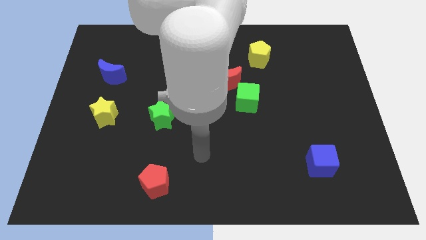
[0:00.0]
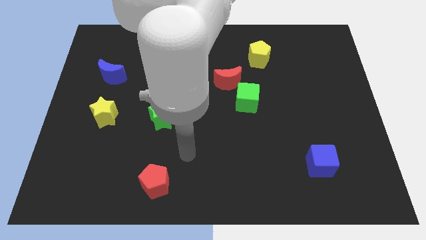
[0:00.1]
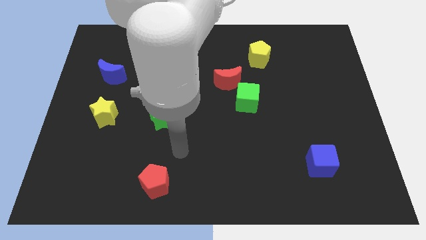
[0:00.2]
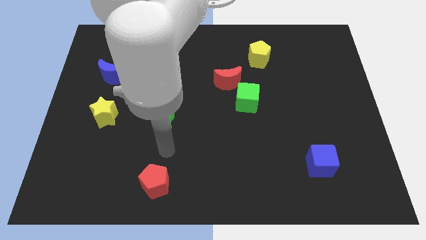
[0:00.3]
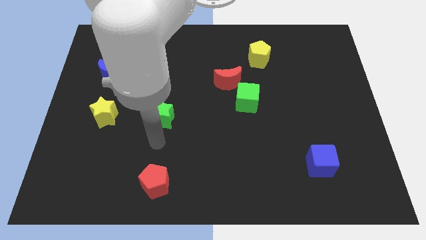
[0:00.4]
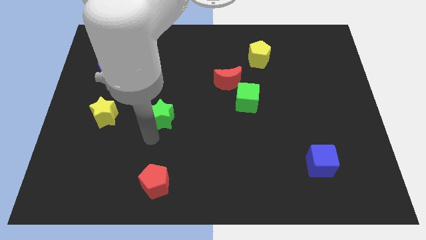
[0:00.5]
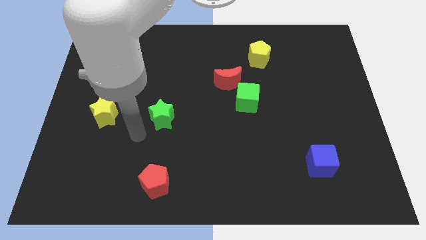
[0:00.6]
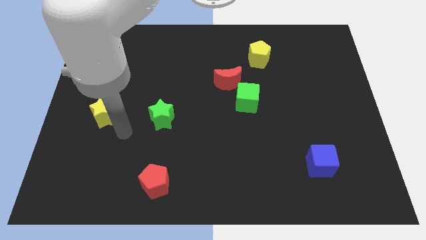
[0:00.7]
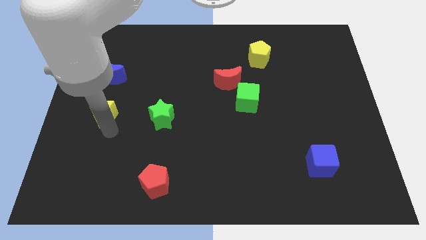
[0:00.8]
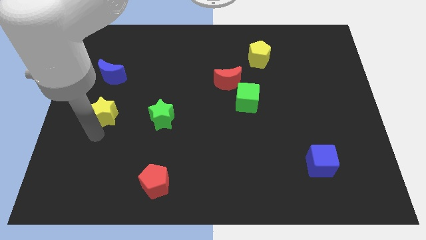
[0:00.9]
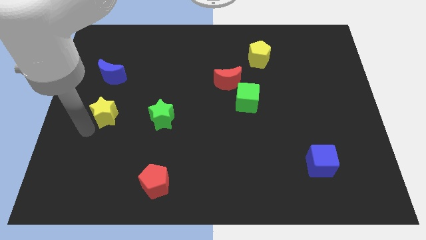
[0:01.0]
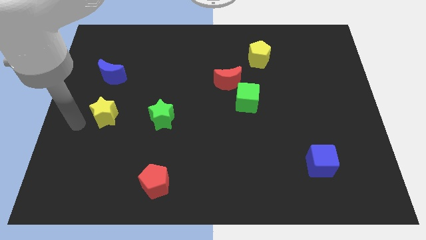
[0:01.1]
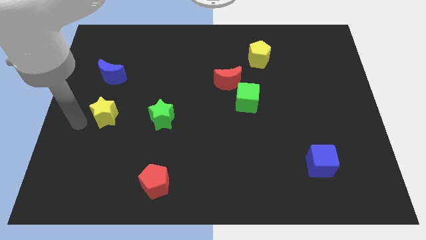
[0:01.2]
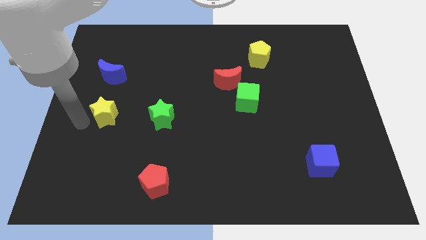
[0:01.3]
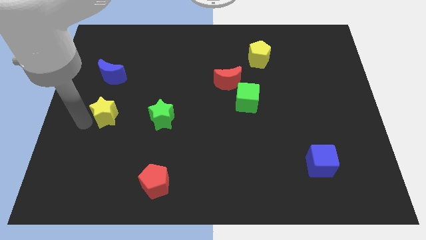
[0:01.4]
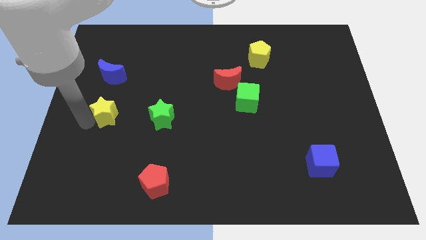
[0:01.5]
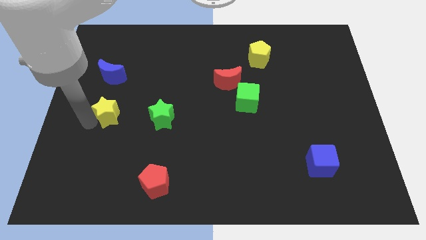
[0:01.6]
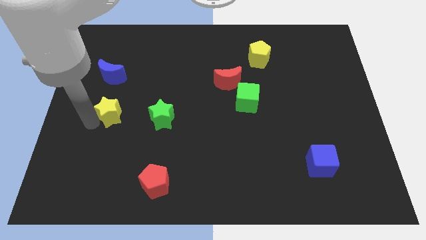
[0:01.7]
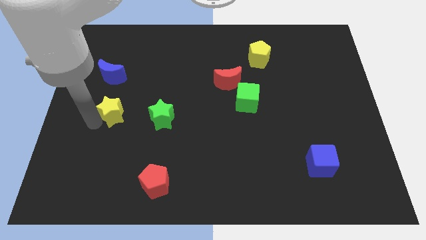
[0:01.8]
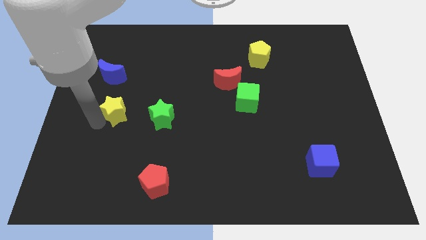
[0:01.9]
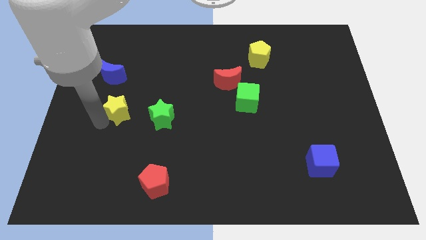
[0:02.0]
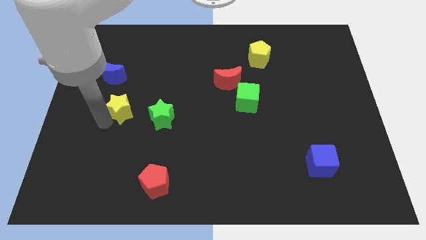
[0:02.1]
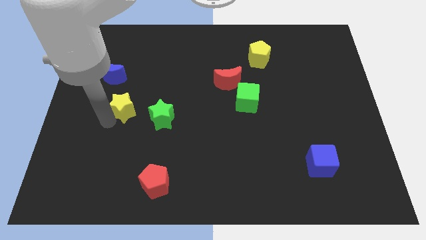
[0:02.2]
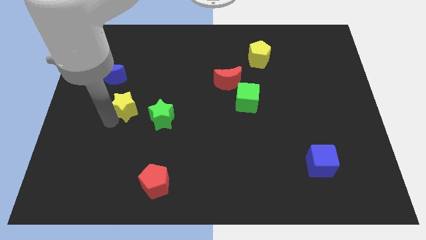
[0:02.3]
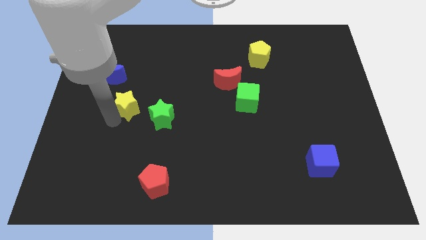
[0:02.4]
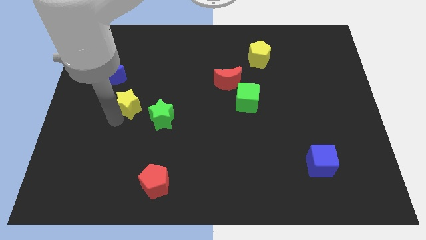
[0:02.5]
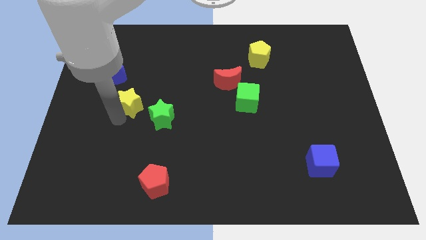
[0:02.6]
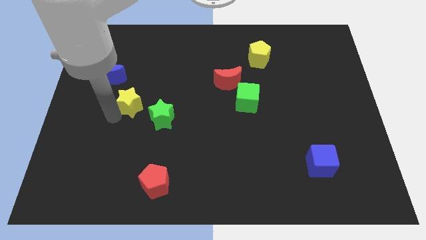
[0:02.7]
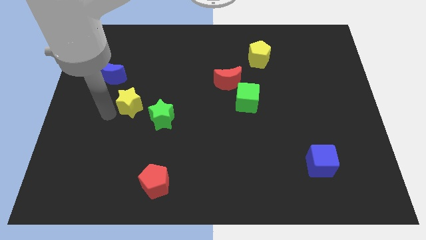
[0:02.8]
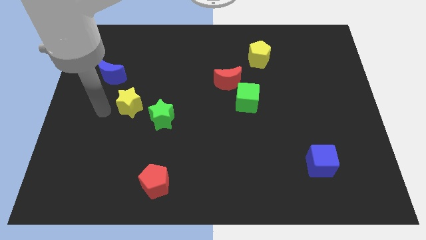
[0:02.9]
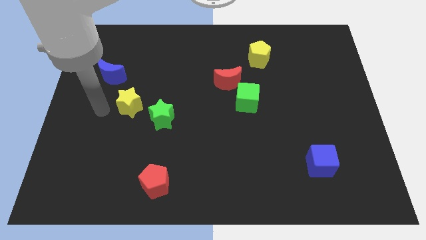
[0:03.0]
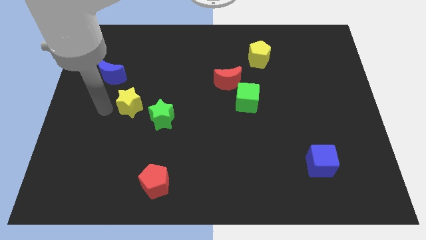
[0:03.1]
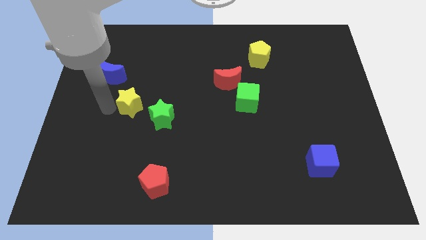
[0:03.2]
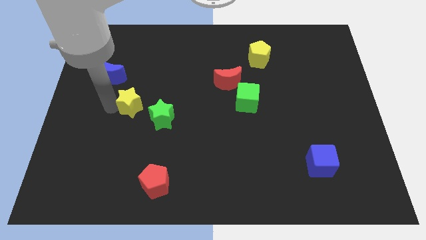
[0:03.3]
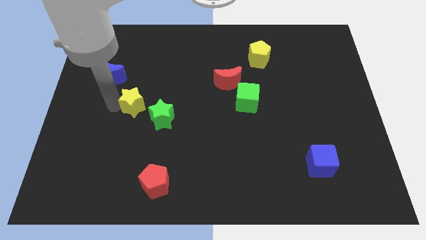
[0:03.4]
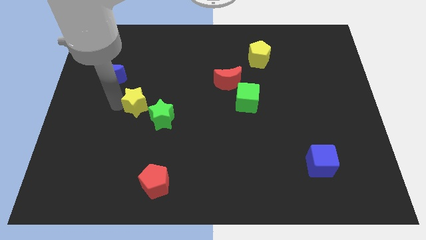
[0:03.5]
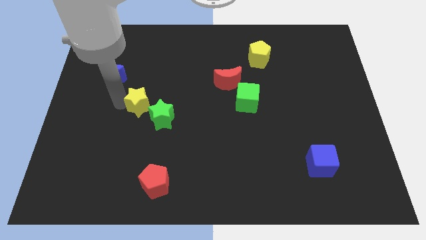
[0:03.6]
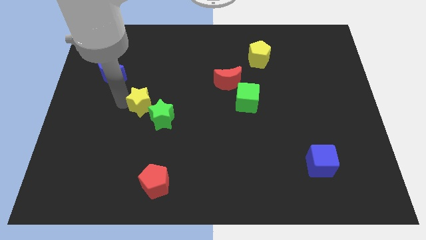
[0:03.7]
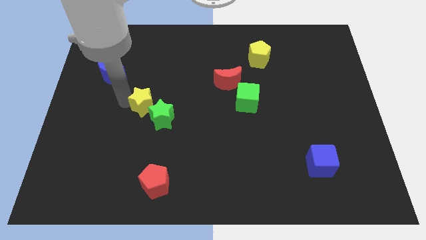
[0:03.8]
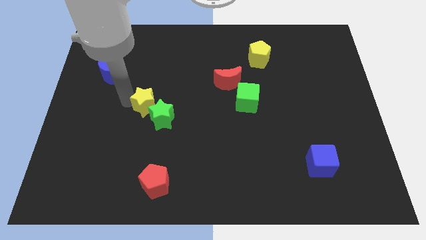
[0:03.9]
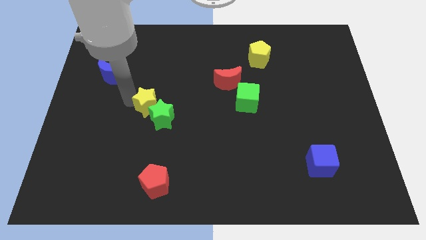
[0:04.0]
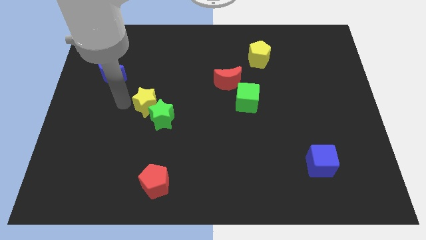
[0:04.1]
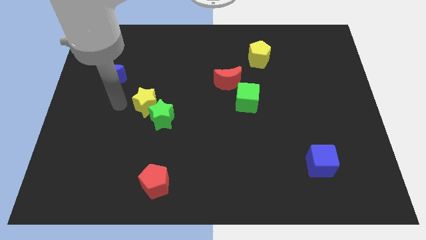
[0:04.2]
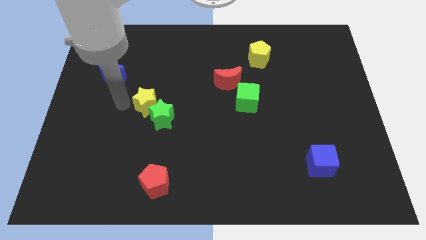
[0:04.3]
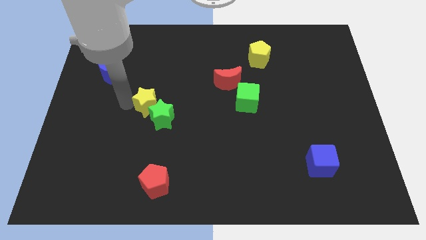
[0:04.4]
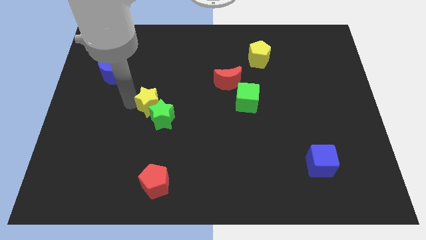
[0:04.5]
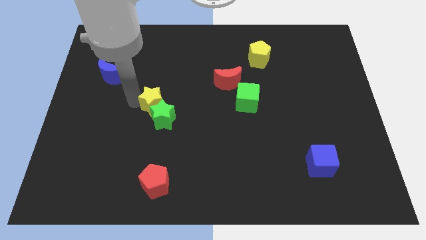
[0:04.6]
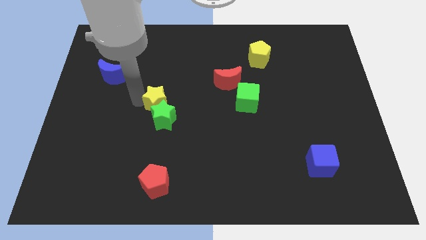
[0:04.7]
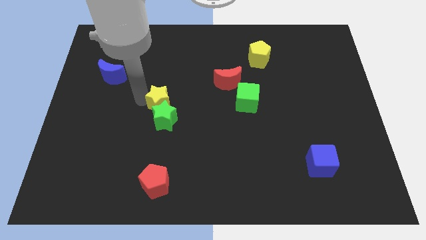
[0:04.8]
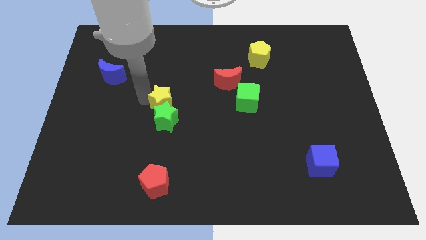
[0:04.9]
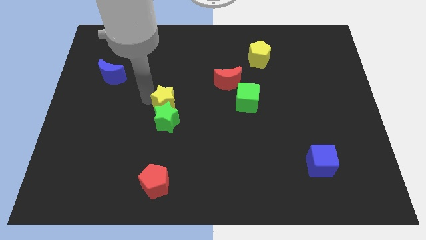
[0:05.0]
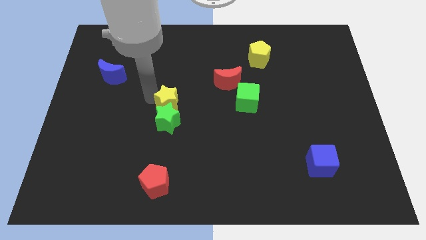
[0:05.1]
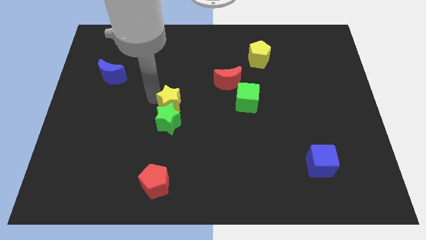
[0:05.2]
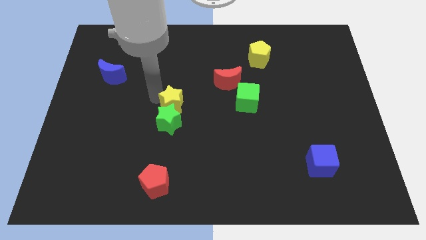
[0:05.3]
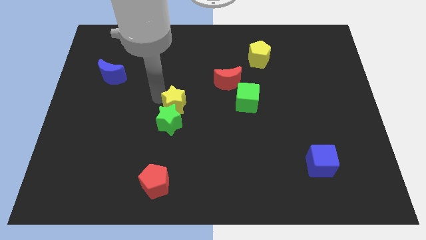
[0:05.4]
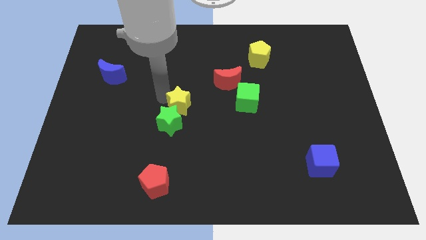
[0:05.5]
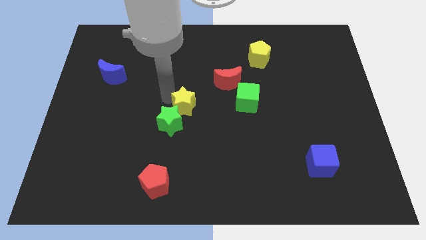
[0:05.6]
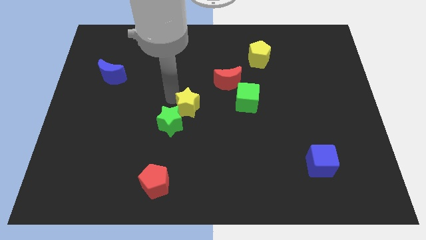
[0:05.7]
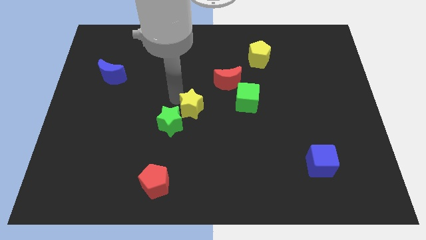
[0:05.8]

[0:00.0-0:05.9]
slide the yellow star to the right side of the green star
